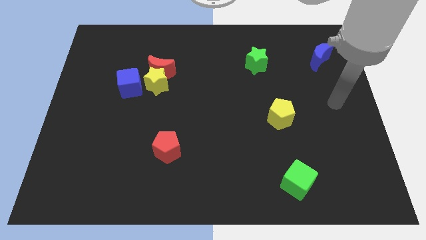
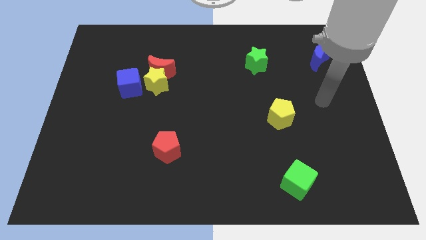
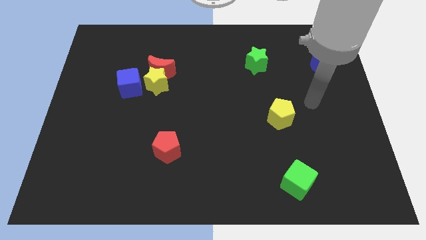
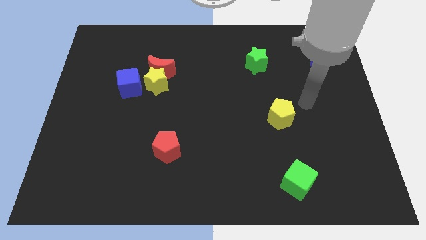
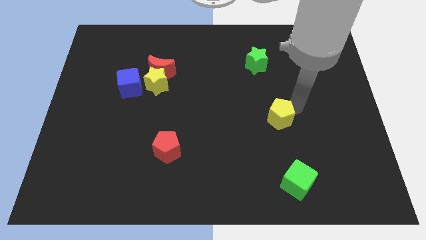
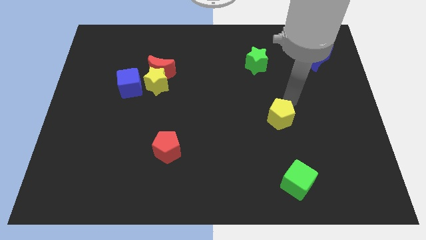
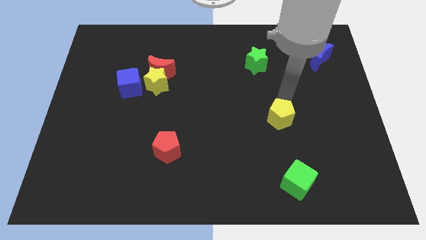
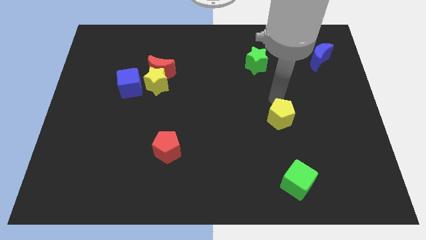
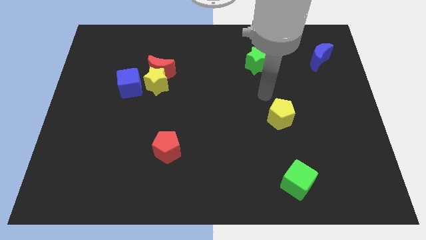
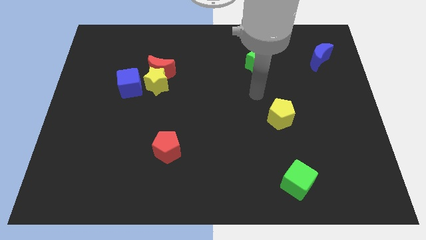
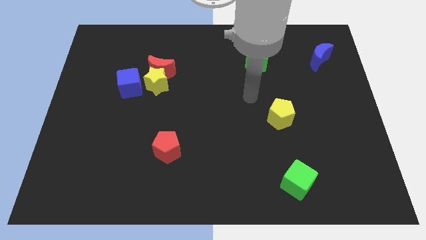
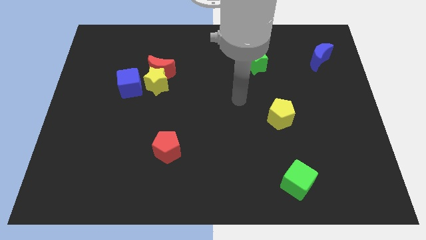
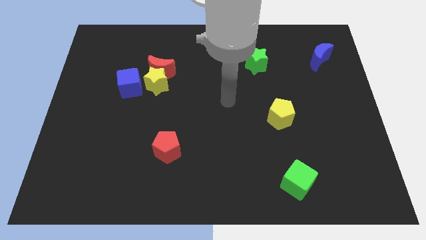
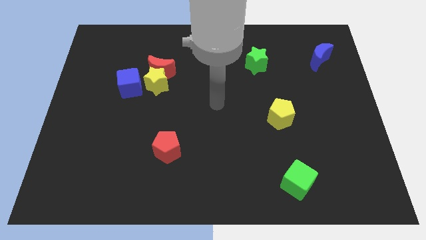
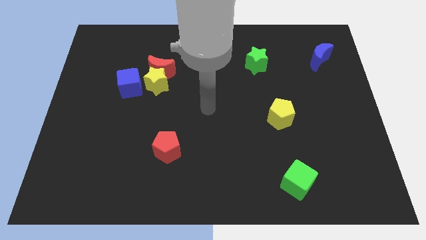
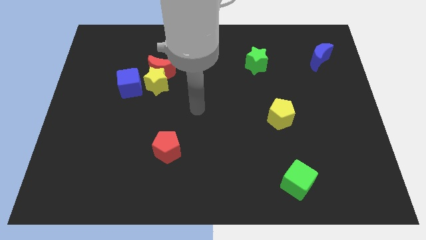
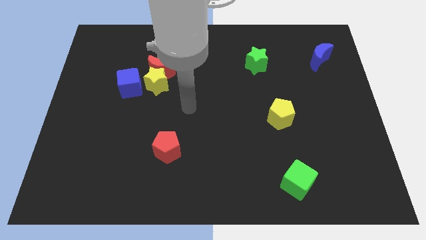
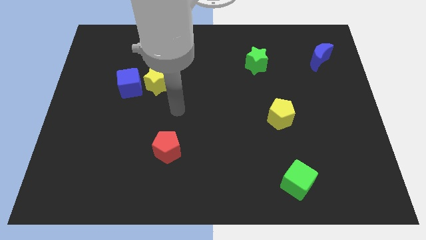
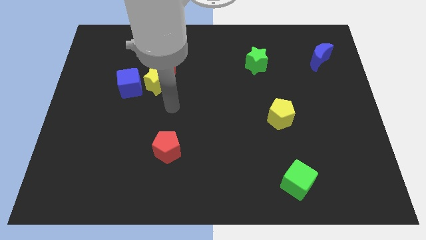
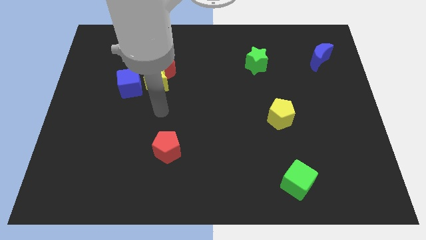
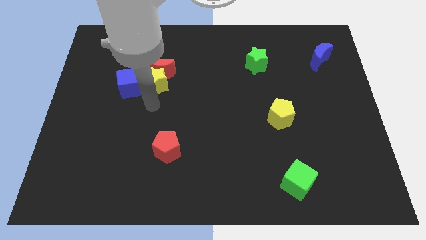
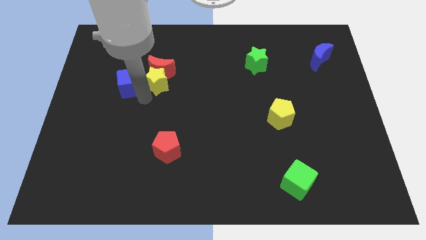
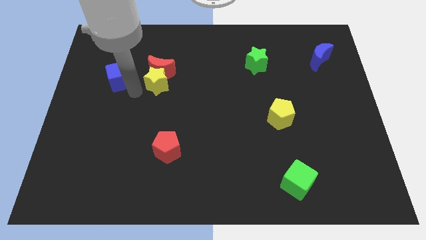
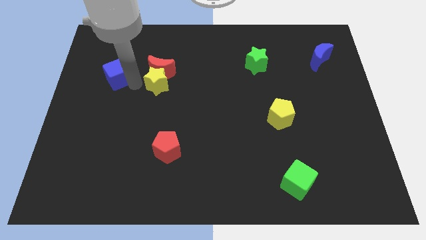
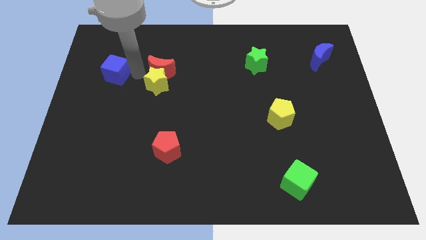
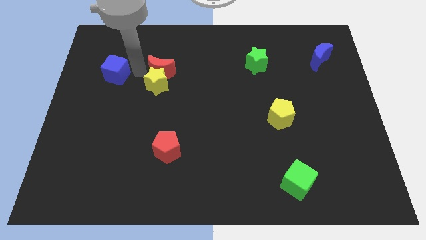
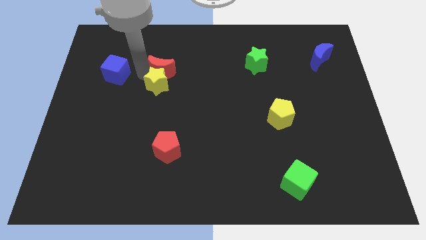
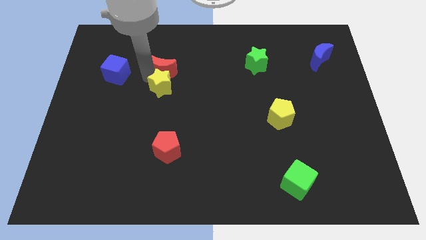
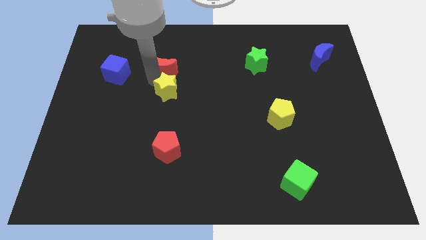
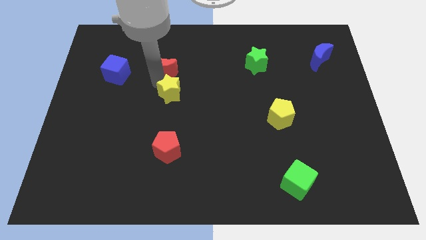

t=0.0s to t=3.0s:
move the yellow star away from the red moon and blue cube

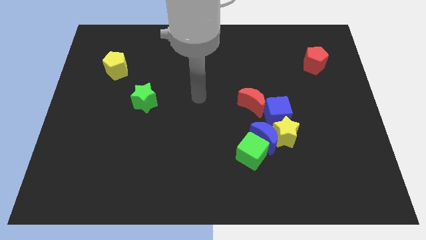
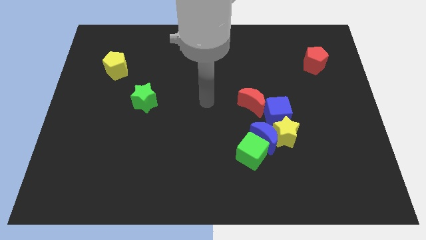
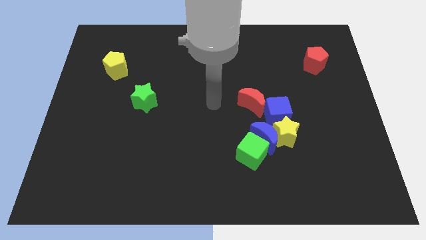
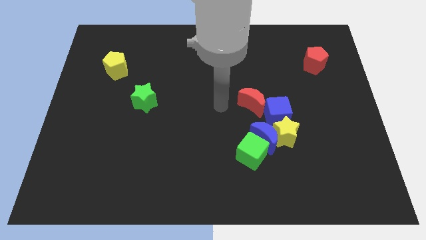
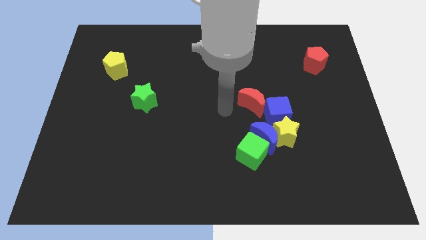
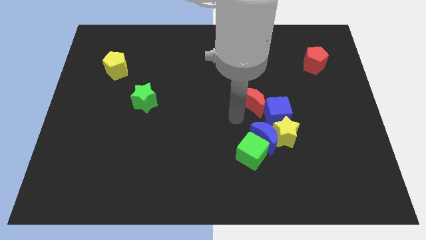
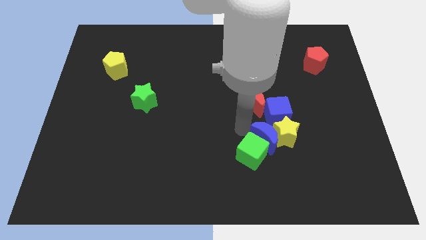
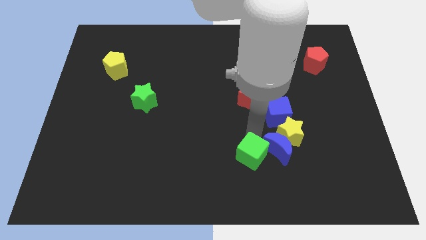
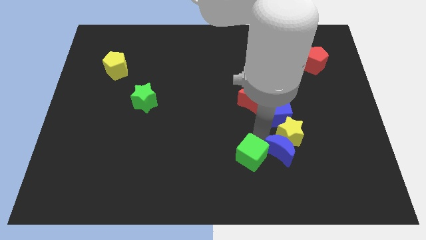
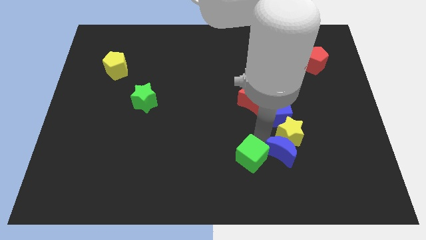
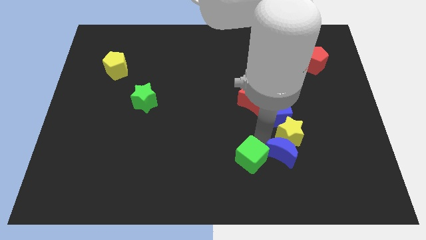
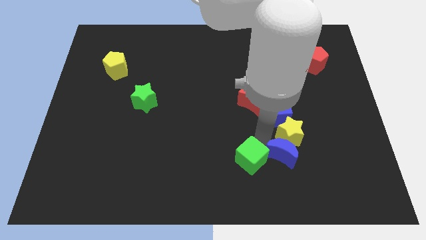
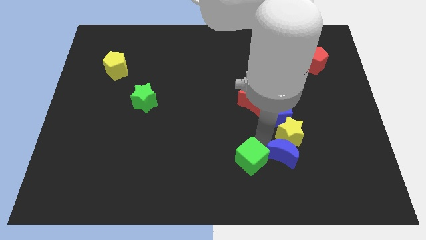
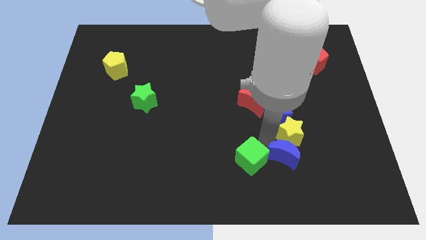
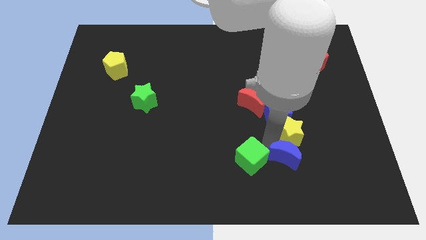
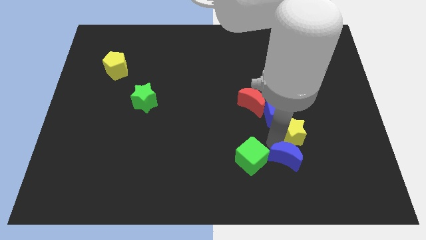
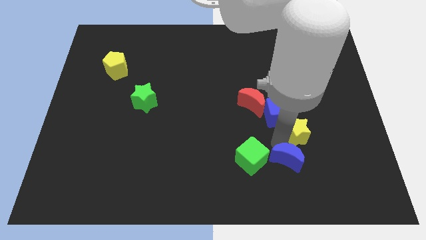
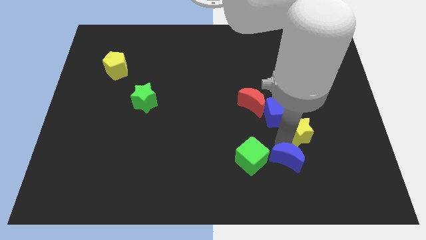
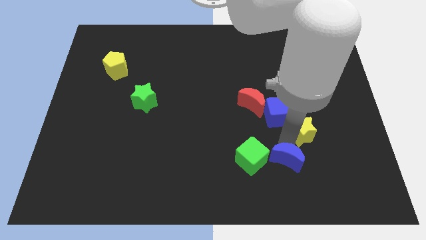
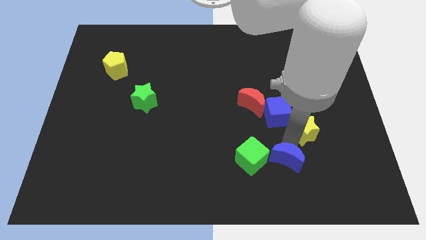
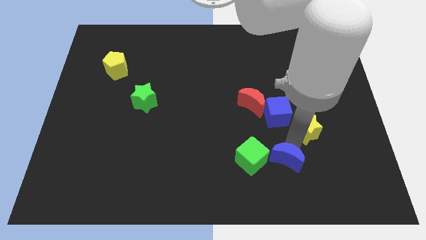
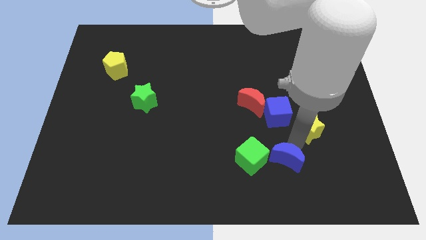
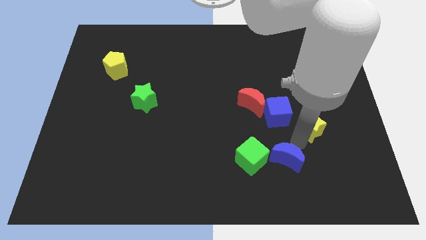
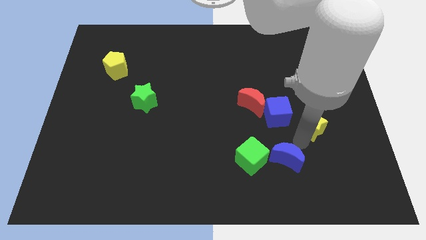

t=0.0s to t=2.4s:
move the yellow star away from the blue moon, blue cube, and green cube

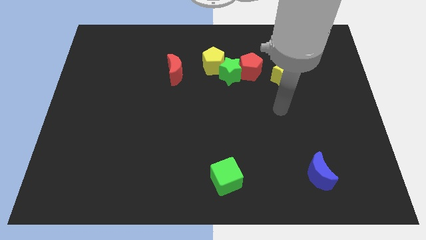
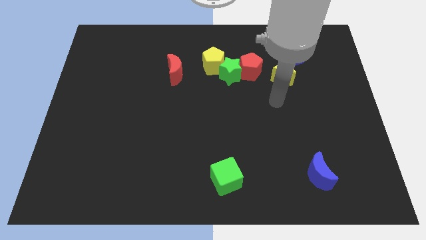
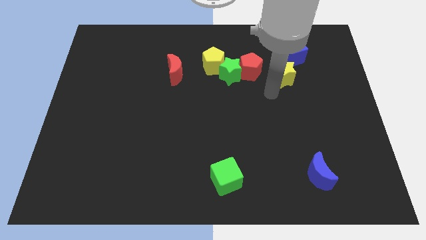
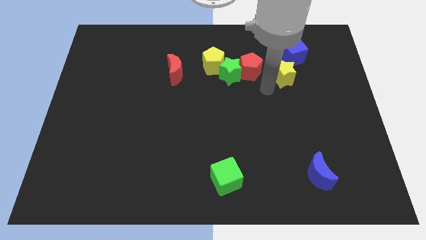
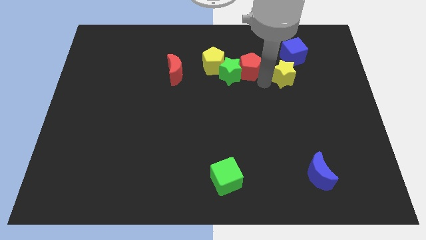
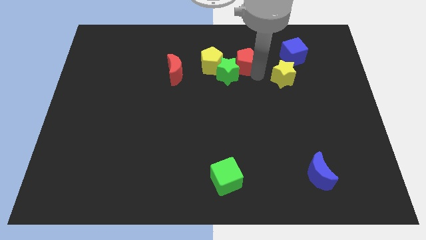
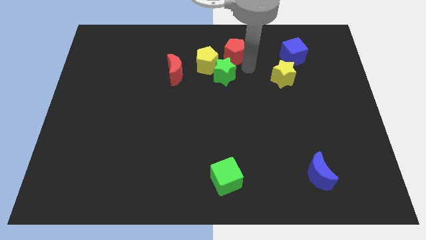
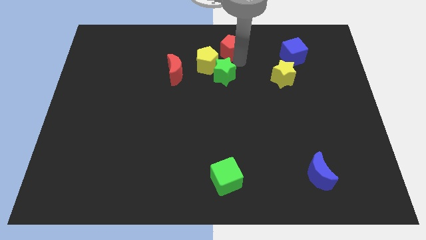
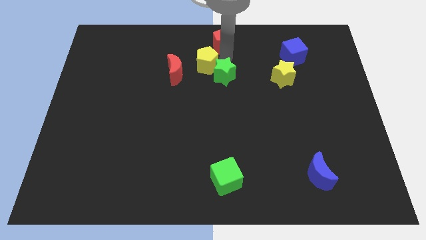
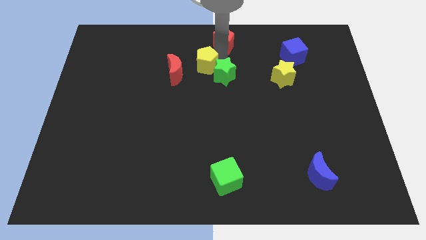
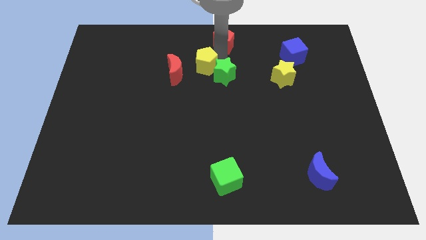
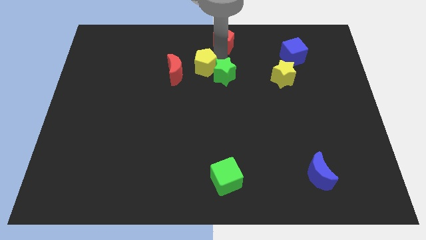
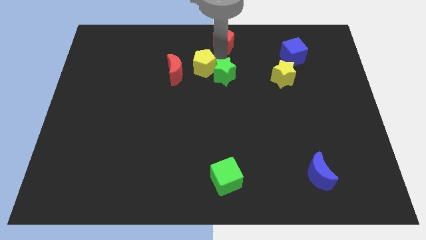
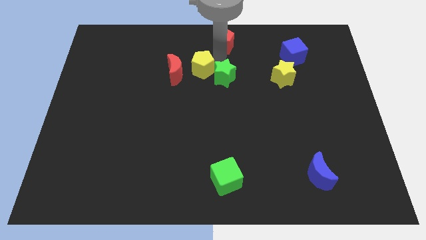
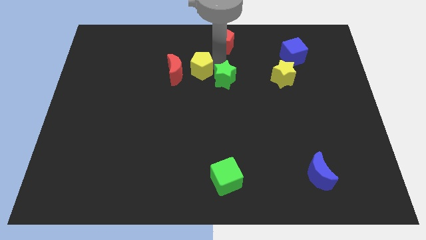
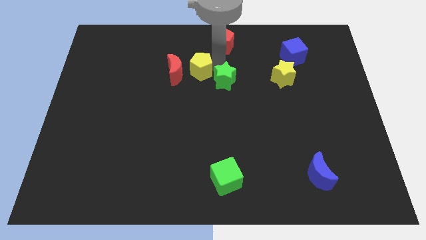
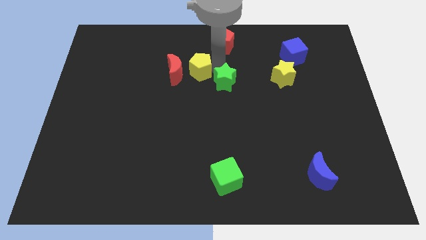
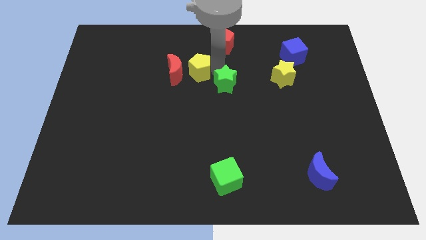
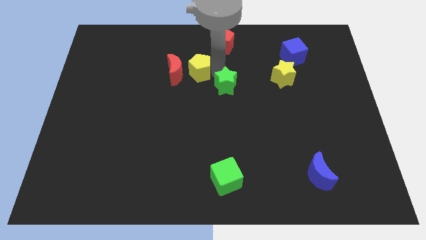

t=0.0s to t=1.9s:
separate the green star from the red pentagon and yellow pentagon

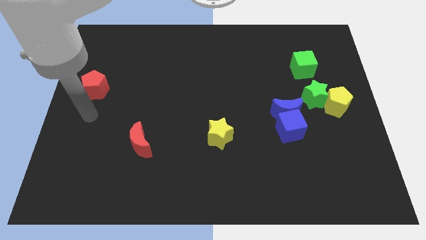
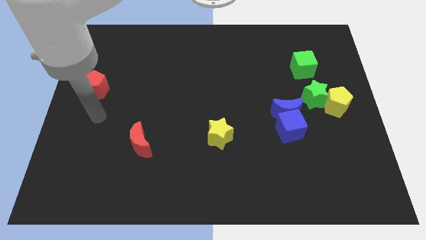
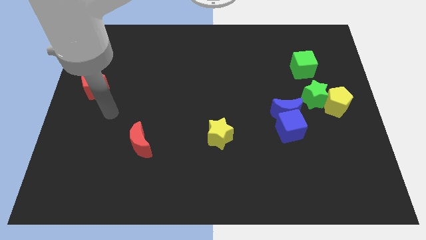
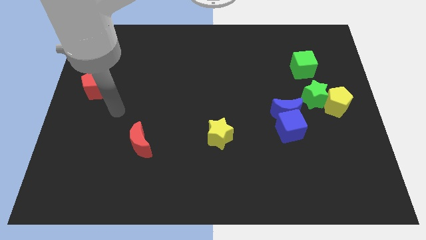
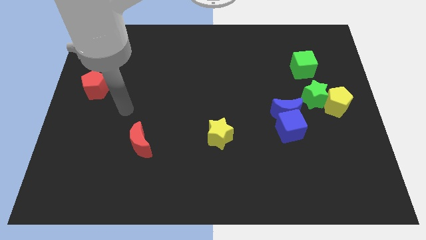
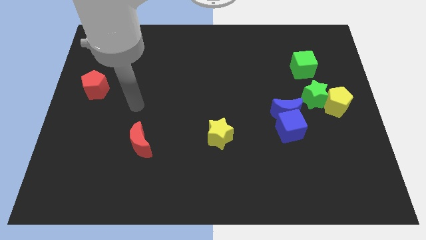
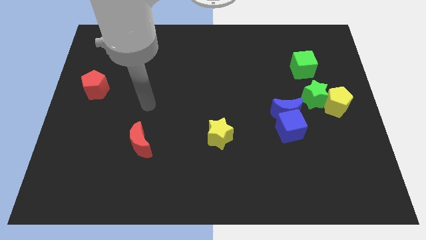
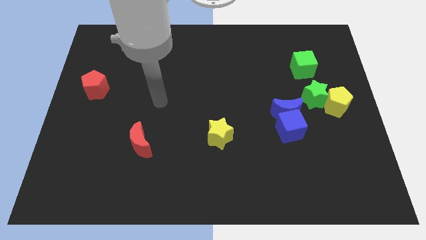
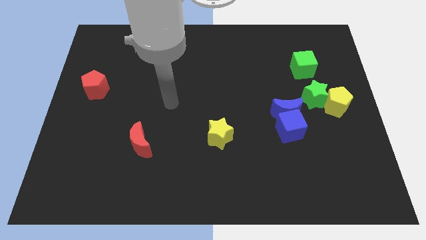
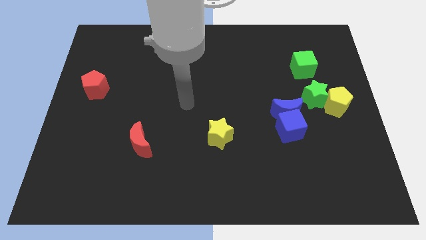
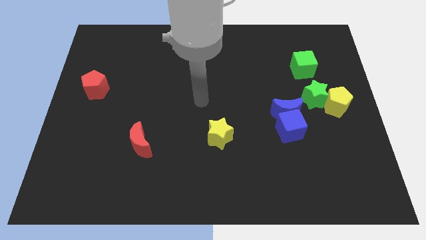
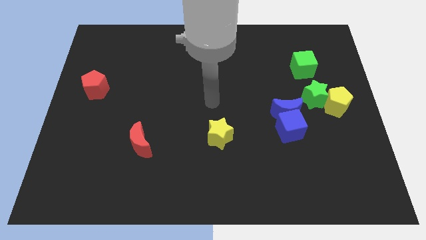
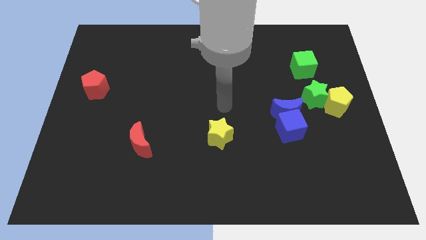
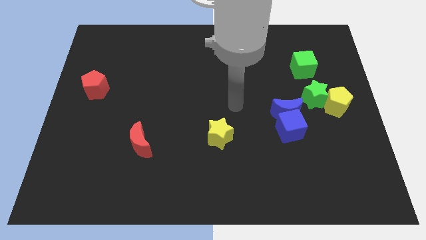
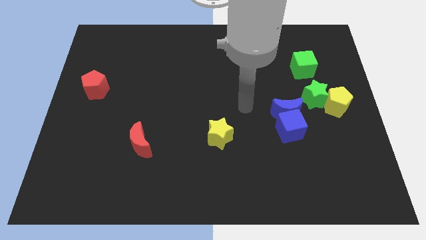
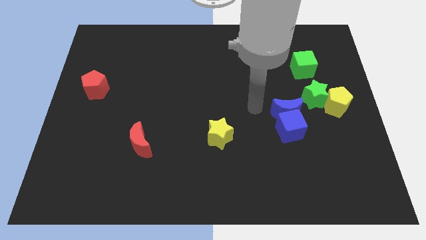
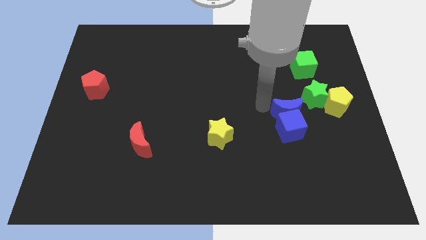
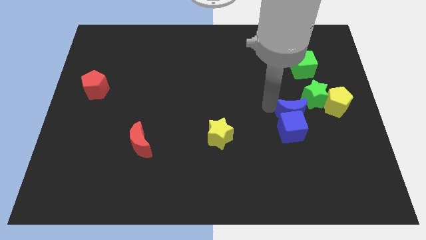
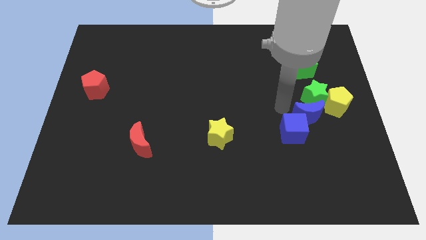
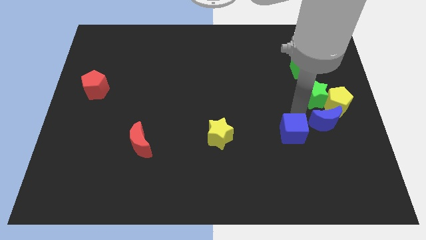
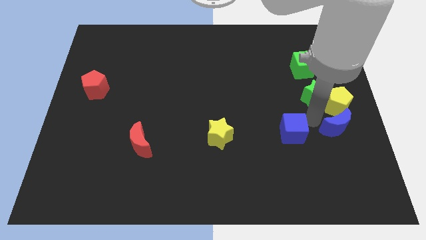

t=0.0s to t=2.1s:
move the blue cube away from the blue moon
